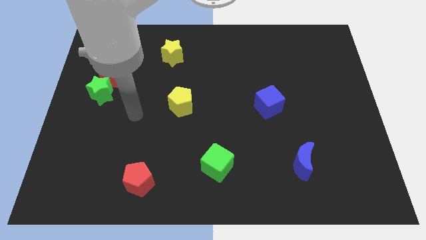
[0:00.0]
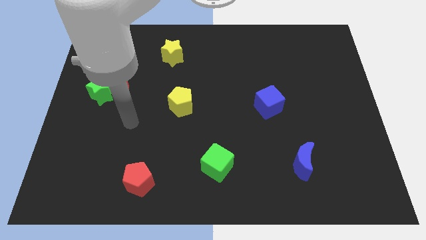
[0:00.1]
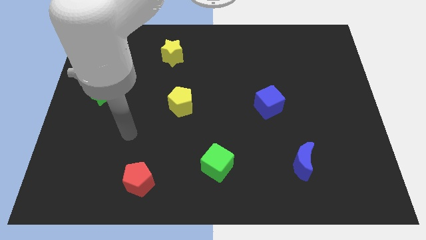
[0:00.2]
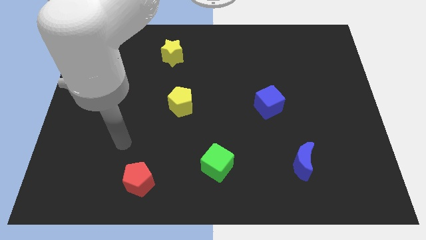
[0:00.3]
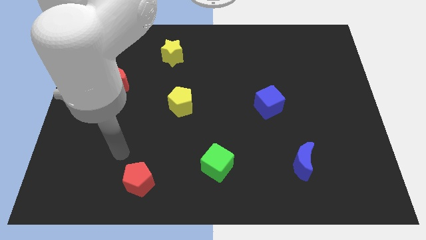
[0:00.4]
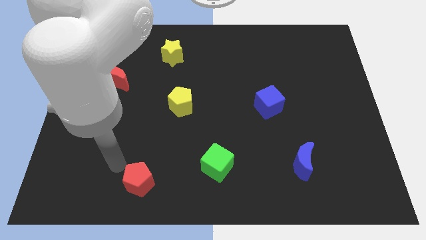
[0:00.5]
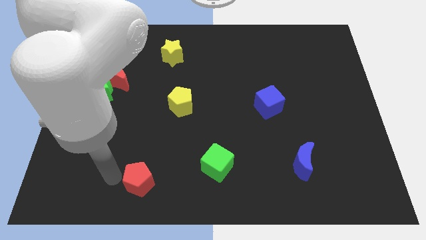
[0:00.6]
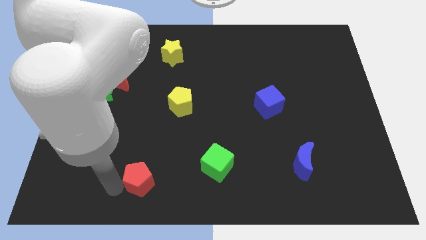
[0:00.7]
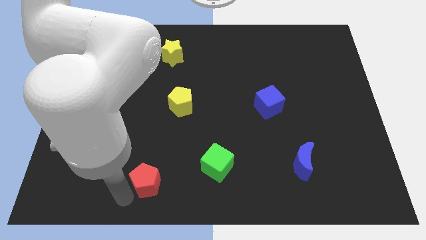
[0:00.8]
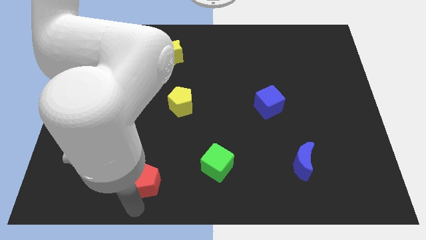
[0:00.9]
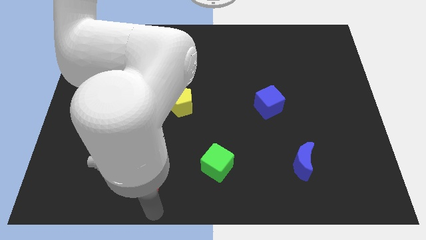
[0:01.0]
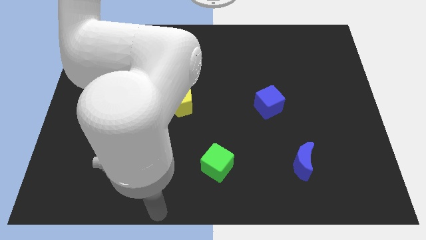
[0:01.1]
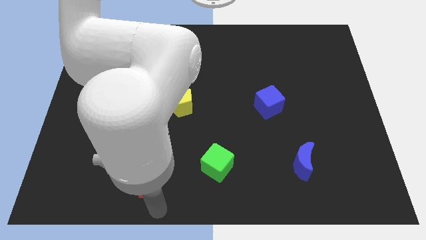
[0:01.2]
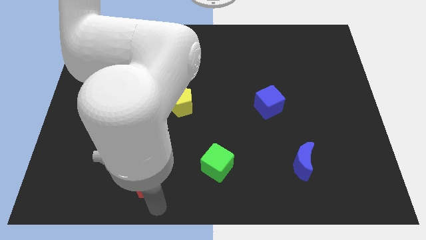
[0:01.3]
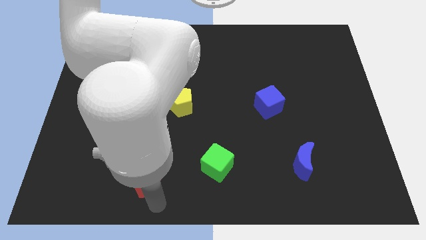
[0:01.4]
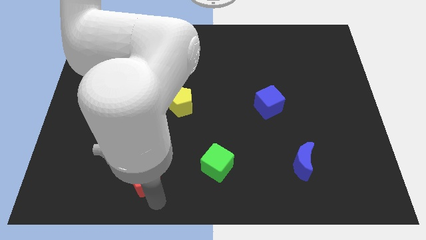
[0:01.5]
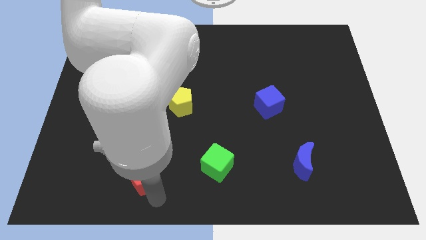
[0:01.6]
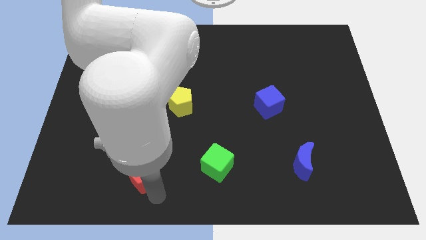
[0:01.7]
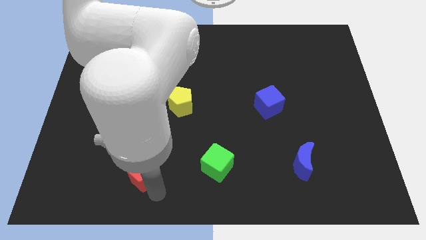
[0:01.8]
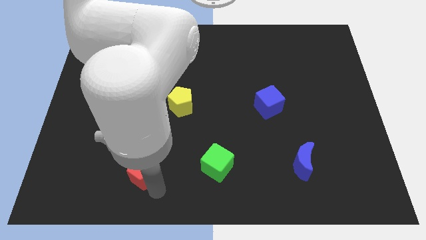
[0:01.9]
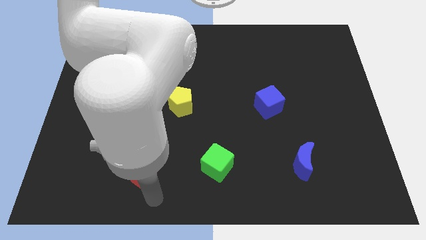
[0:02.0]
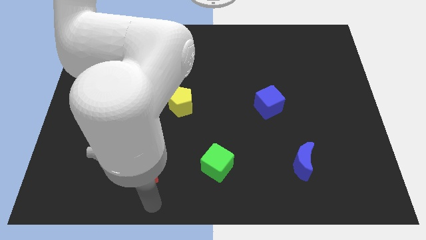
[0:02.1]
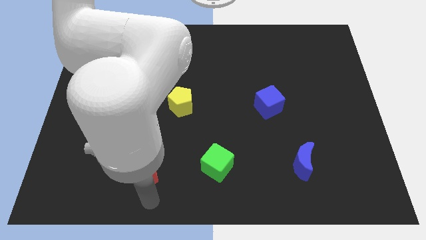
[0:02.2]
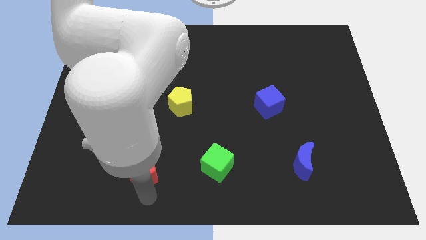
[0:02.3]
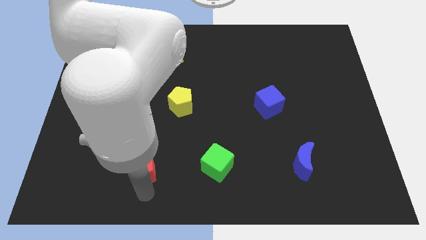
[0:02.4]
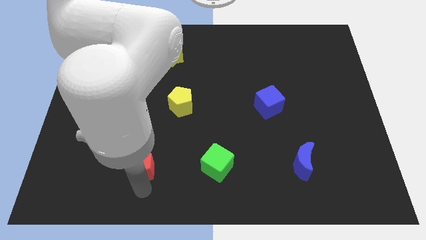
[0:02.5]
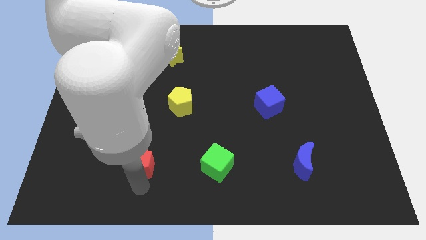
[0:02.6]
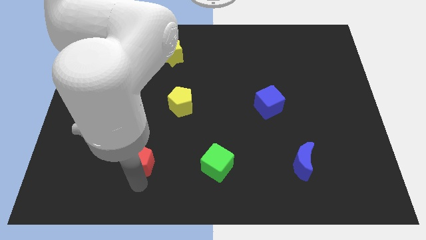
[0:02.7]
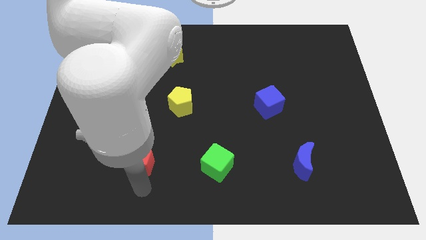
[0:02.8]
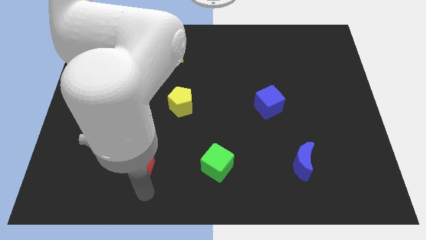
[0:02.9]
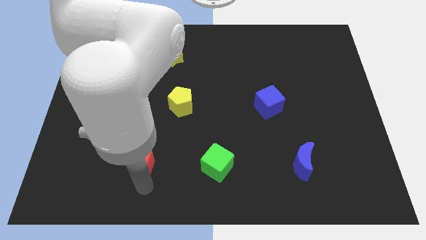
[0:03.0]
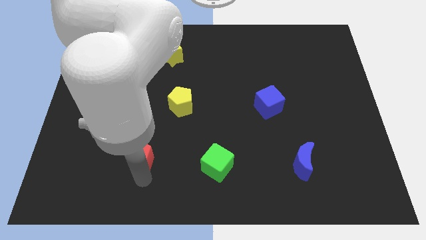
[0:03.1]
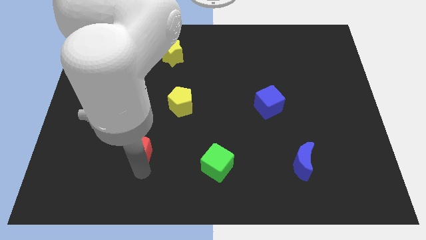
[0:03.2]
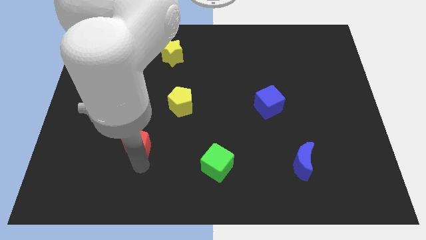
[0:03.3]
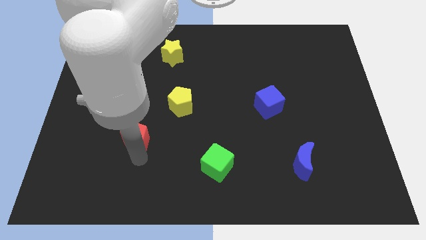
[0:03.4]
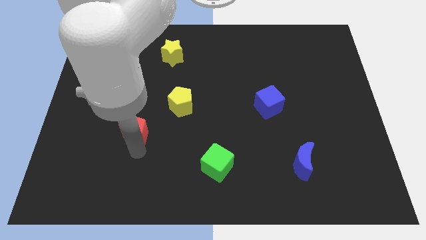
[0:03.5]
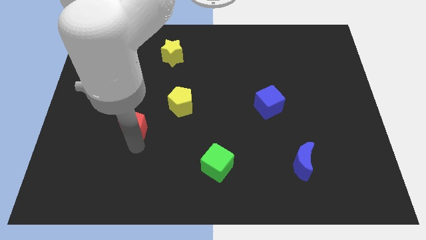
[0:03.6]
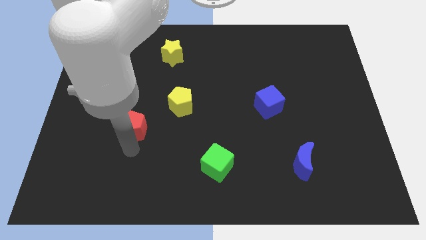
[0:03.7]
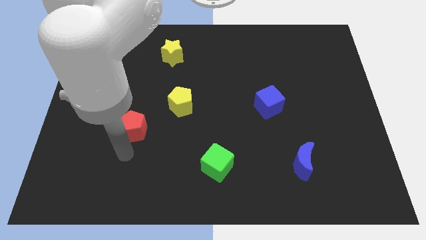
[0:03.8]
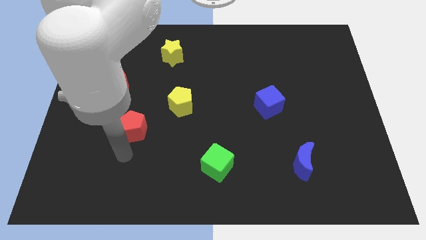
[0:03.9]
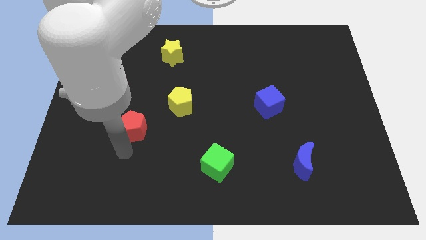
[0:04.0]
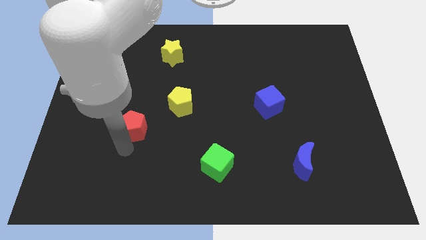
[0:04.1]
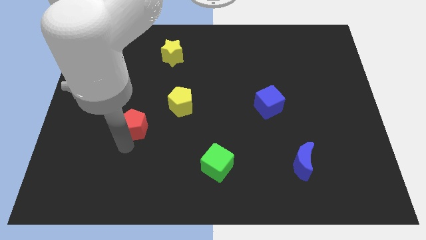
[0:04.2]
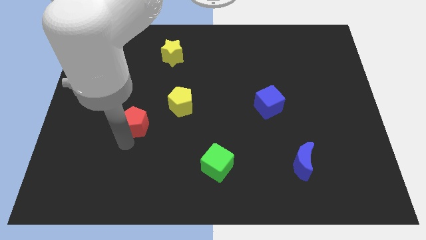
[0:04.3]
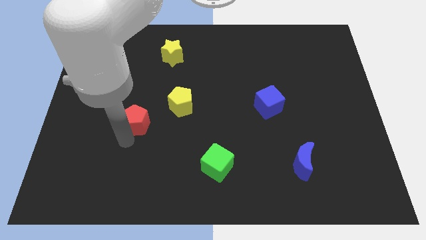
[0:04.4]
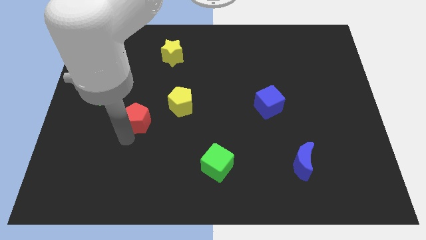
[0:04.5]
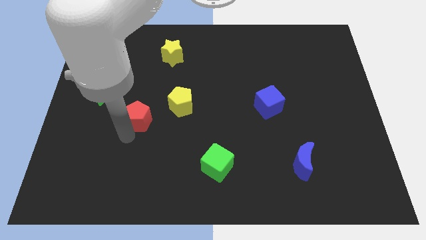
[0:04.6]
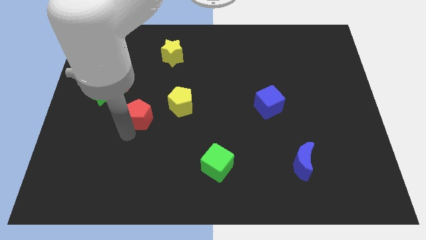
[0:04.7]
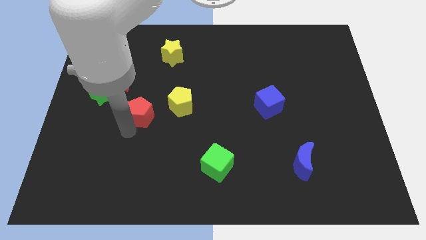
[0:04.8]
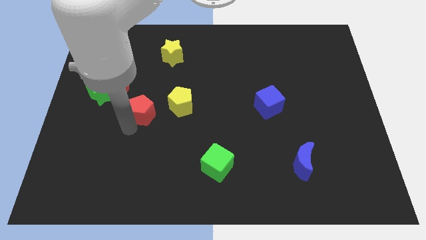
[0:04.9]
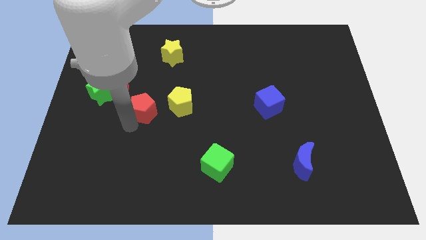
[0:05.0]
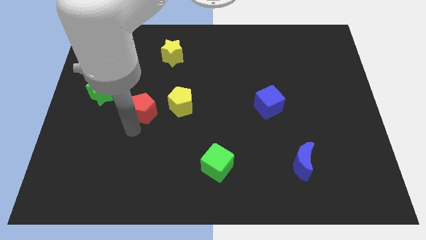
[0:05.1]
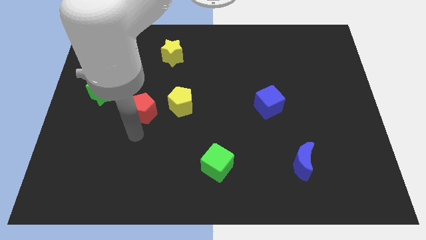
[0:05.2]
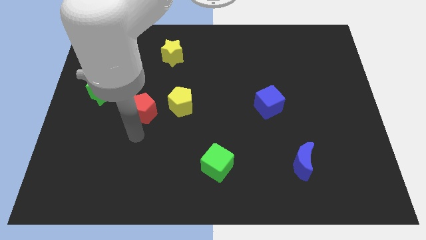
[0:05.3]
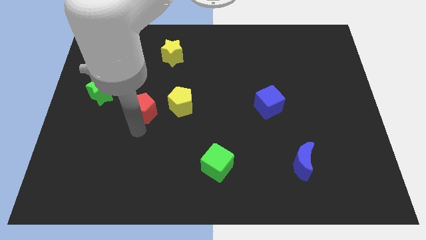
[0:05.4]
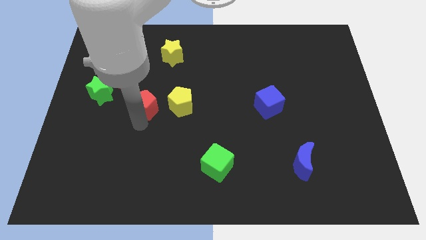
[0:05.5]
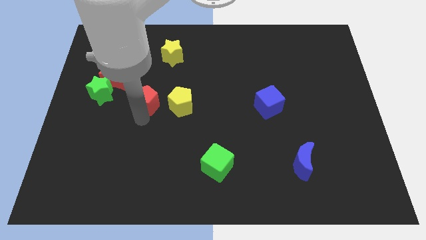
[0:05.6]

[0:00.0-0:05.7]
slide the red pentagon up

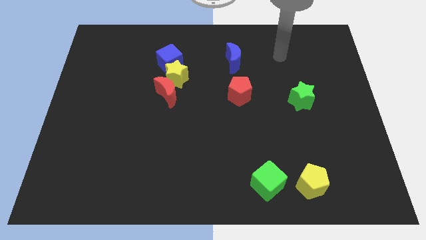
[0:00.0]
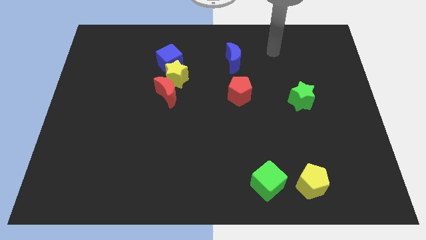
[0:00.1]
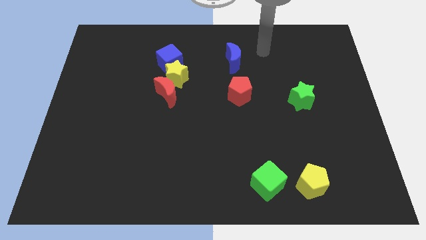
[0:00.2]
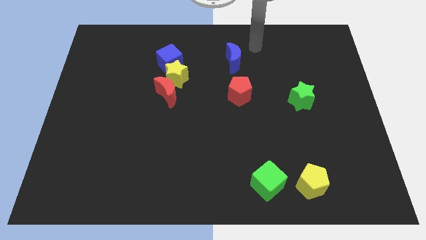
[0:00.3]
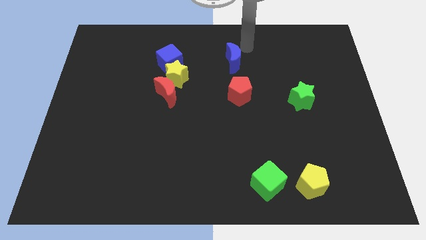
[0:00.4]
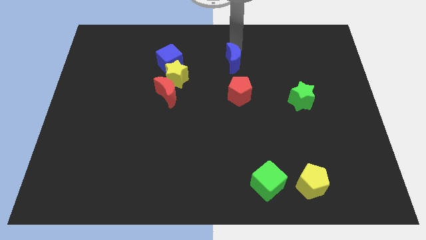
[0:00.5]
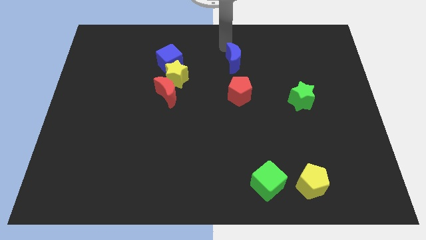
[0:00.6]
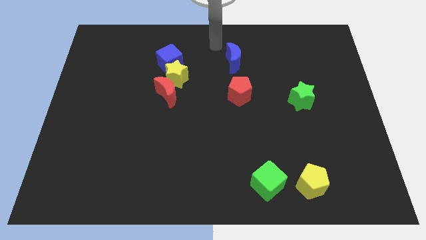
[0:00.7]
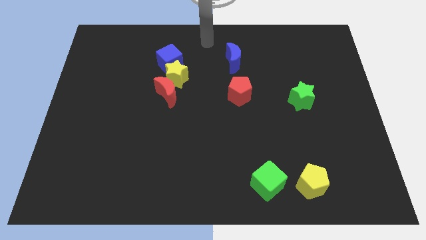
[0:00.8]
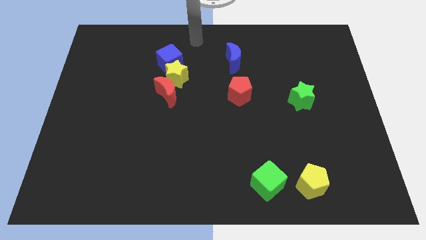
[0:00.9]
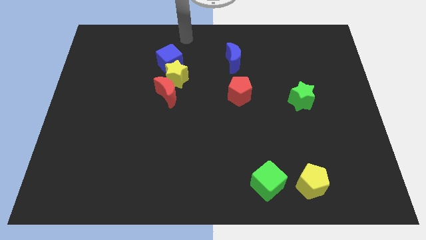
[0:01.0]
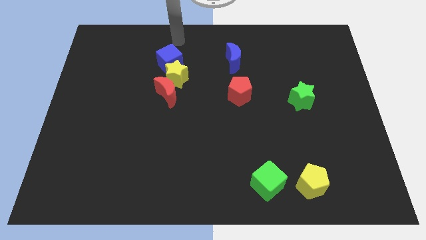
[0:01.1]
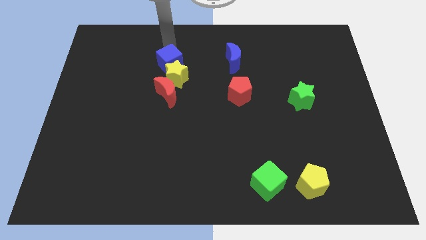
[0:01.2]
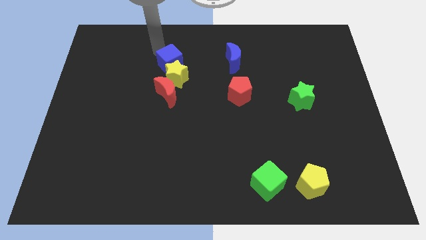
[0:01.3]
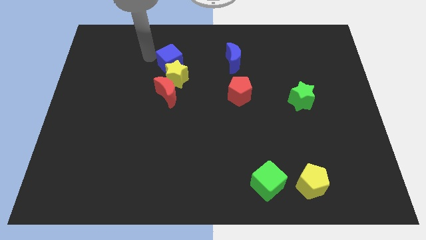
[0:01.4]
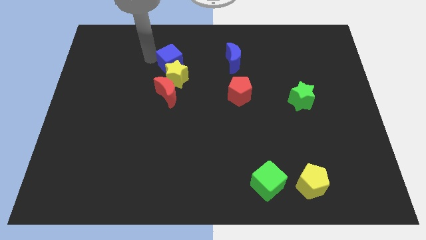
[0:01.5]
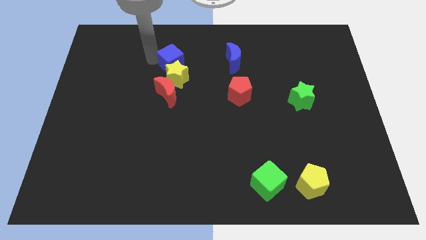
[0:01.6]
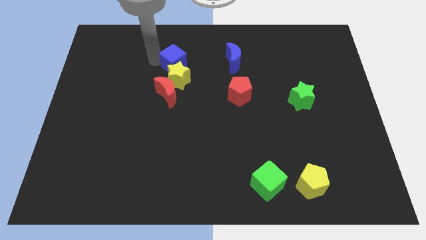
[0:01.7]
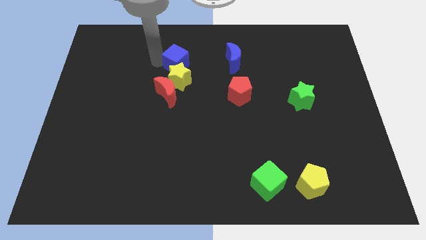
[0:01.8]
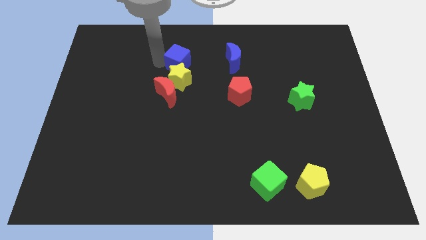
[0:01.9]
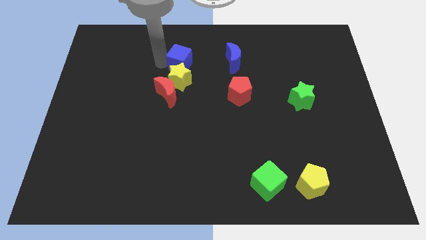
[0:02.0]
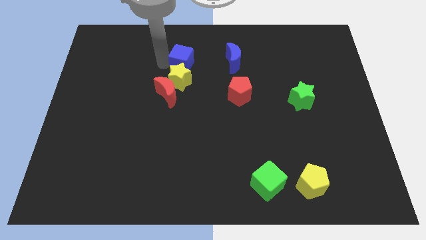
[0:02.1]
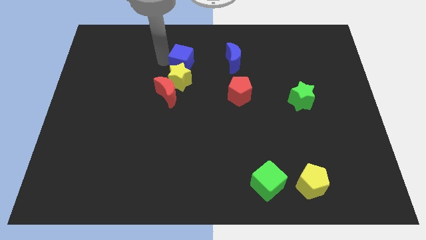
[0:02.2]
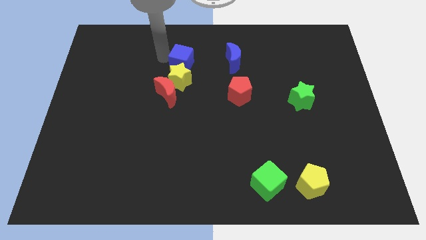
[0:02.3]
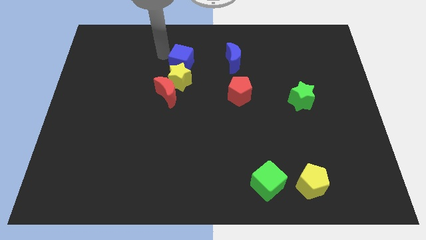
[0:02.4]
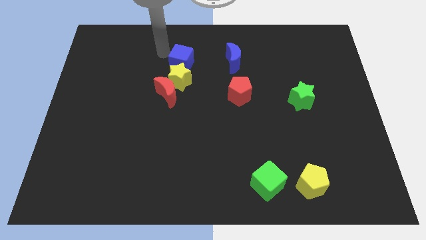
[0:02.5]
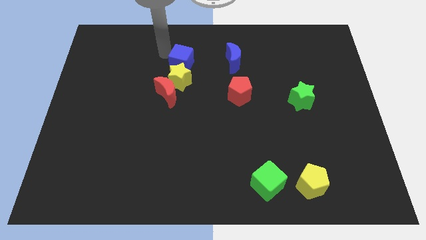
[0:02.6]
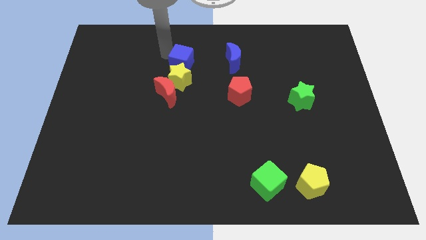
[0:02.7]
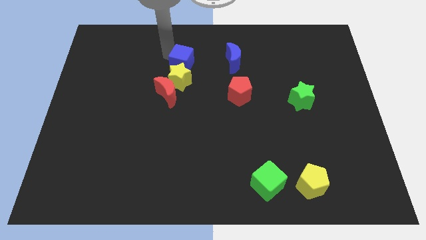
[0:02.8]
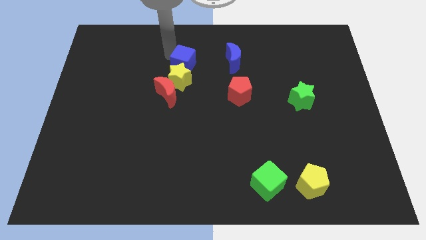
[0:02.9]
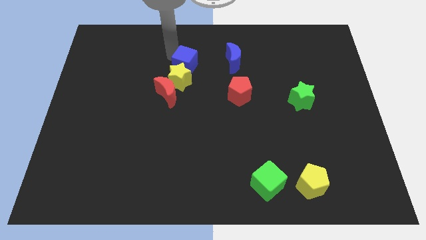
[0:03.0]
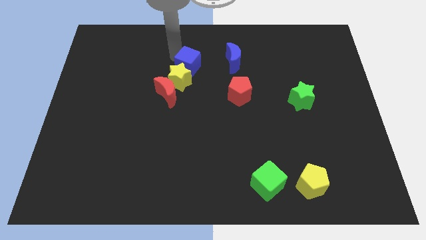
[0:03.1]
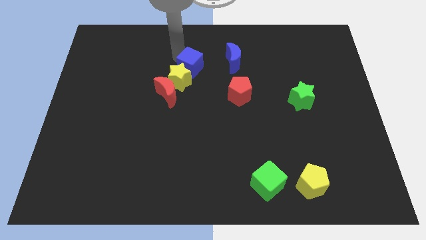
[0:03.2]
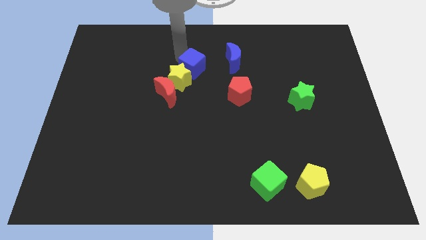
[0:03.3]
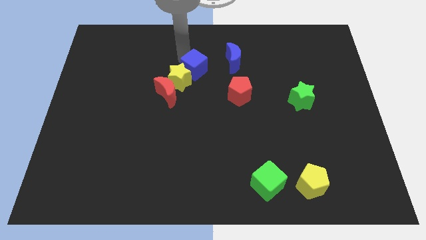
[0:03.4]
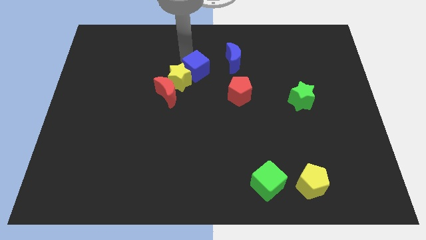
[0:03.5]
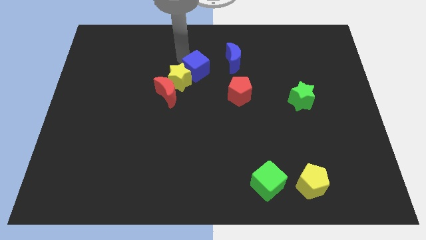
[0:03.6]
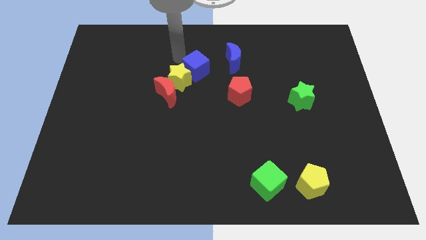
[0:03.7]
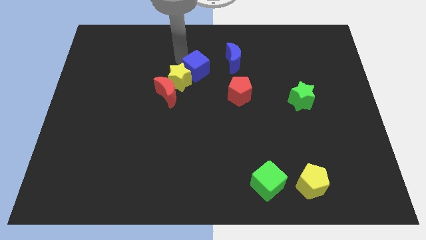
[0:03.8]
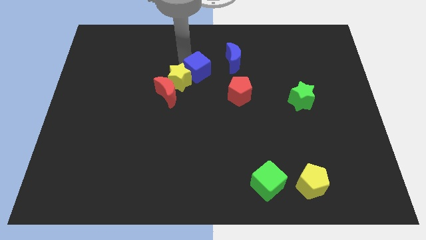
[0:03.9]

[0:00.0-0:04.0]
slightly slide the blue cube down and then to the right
